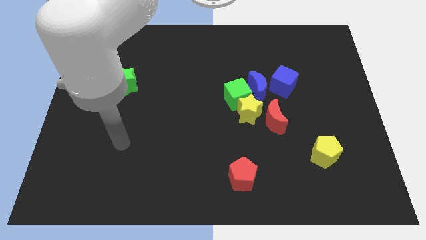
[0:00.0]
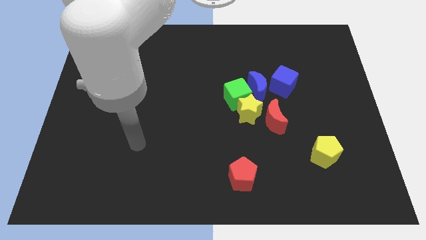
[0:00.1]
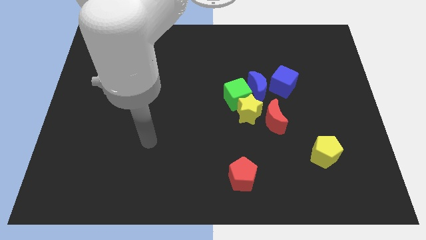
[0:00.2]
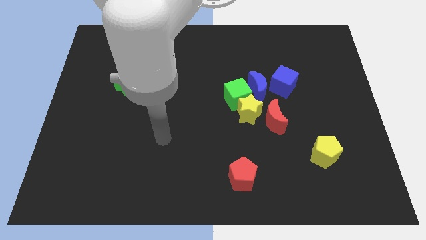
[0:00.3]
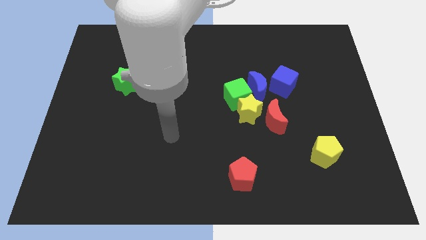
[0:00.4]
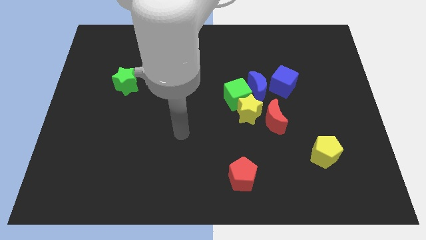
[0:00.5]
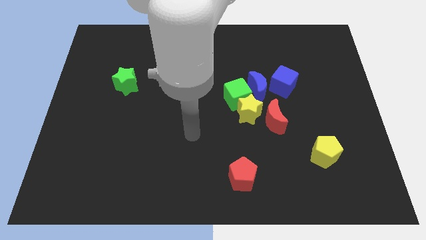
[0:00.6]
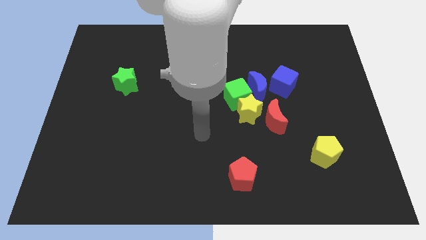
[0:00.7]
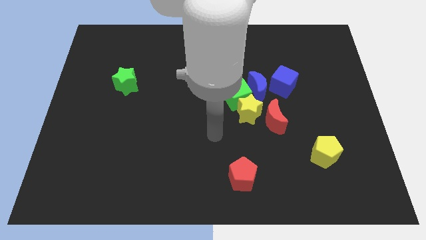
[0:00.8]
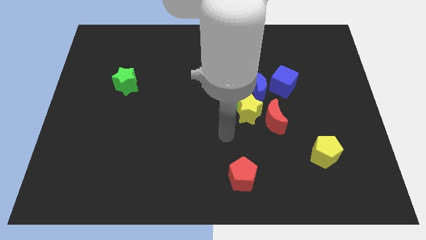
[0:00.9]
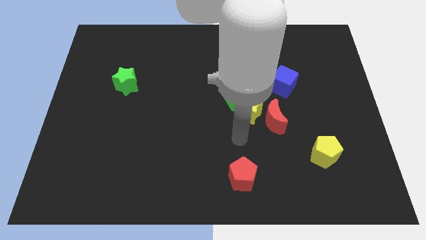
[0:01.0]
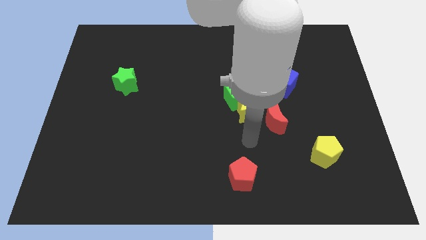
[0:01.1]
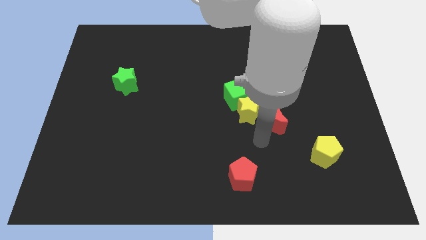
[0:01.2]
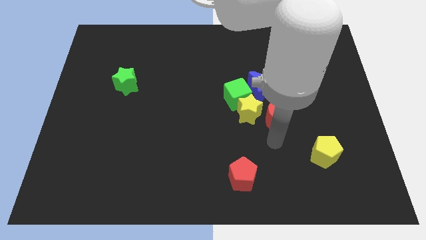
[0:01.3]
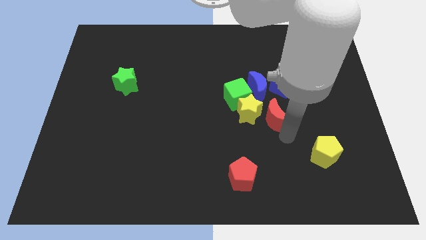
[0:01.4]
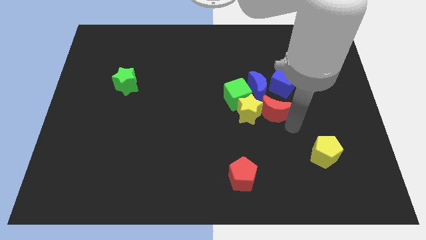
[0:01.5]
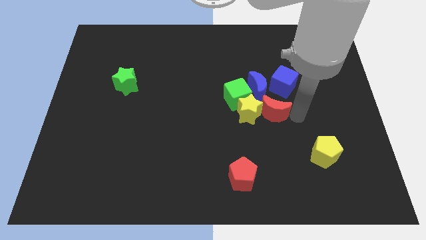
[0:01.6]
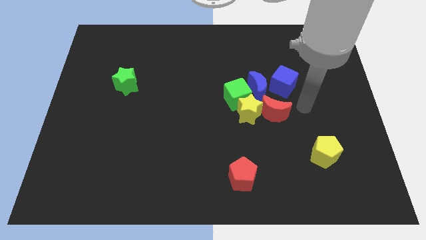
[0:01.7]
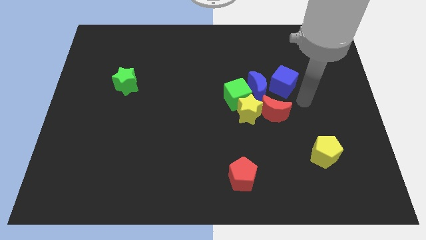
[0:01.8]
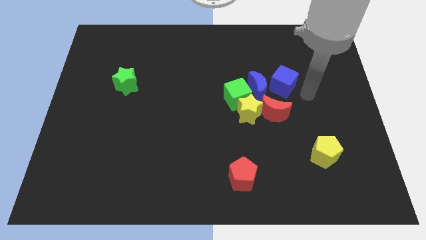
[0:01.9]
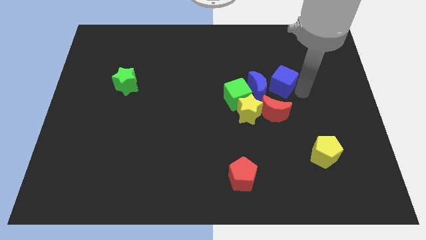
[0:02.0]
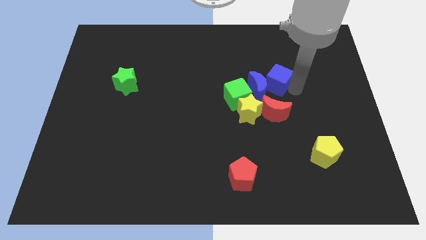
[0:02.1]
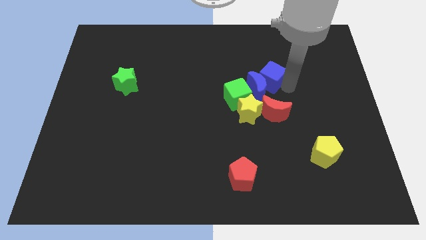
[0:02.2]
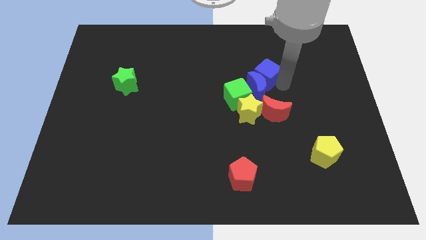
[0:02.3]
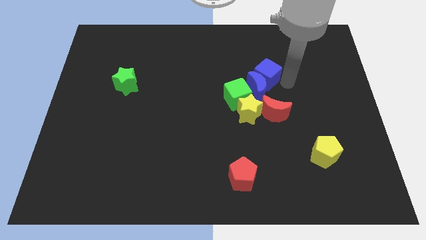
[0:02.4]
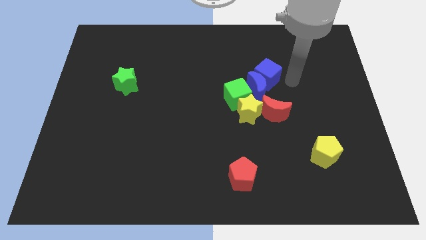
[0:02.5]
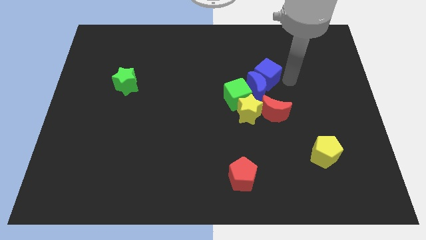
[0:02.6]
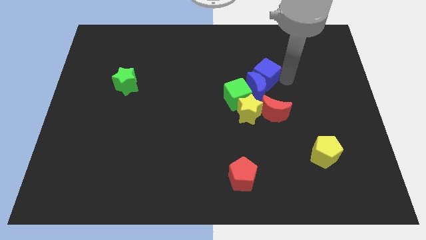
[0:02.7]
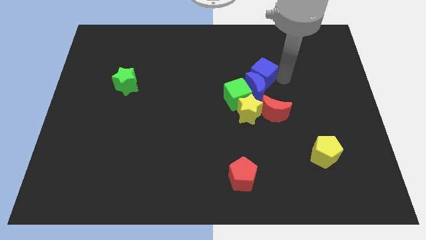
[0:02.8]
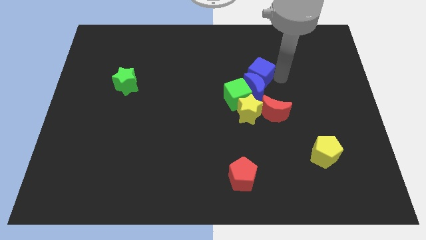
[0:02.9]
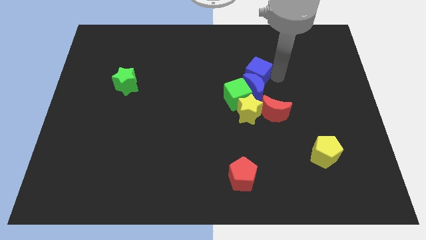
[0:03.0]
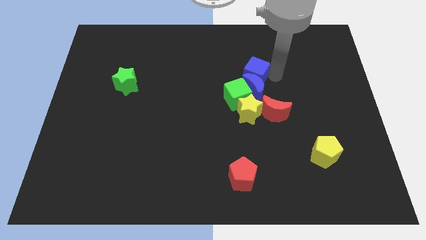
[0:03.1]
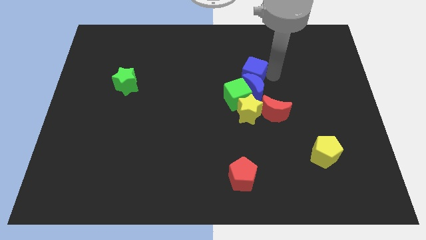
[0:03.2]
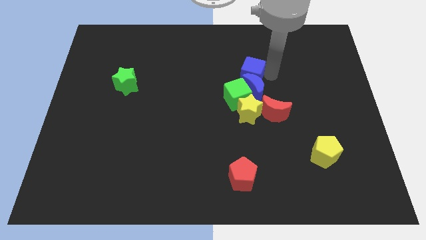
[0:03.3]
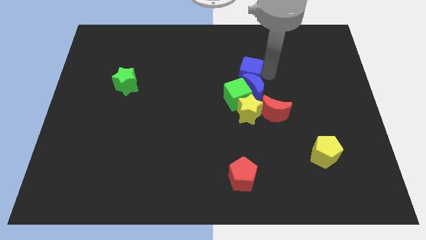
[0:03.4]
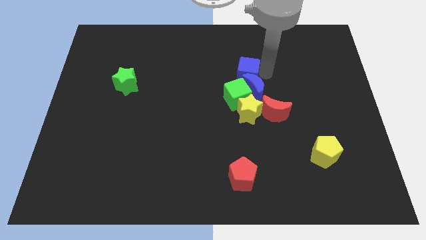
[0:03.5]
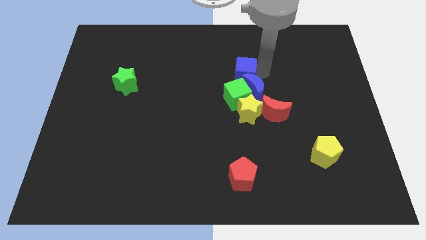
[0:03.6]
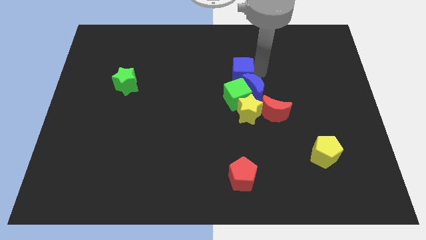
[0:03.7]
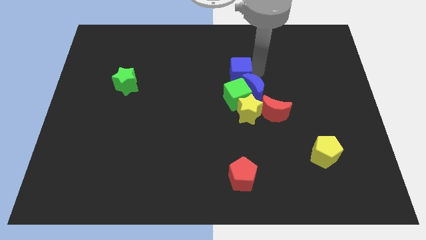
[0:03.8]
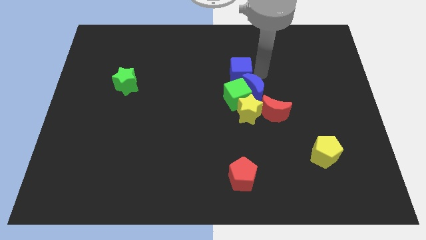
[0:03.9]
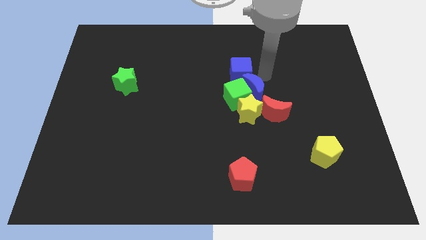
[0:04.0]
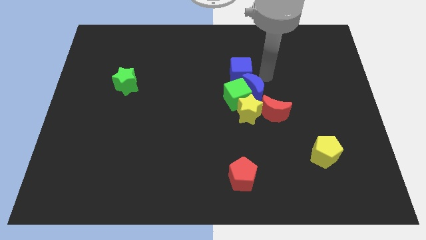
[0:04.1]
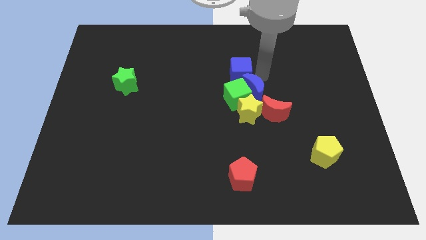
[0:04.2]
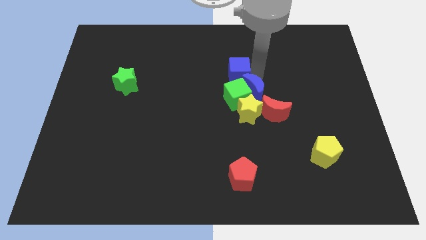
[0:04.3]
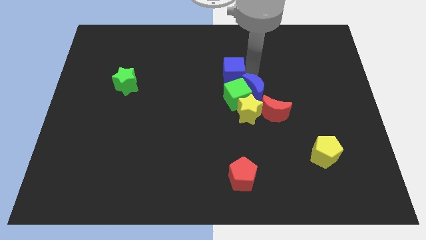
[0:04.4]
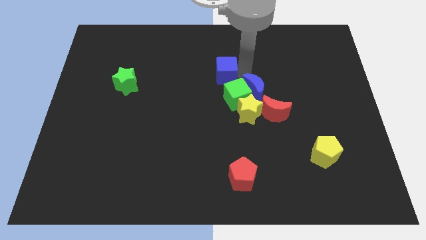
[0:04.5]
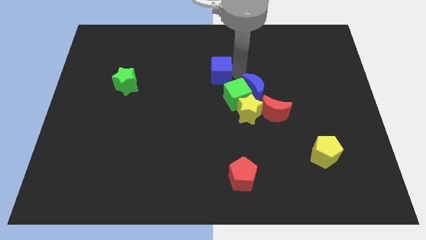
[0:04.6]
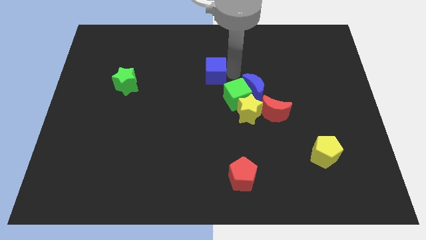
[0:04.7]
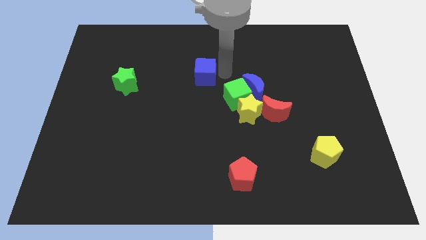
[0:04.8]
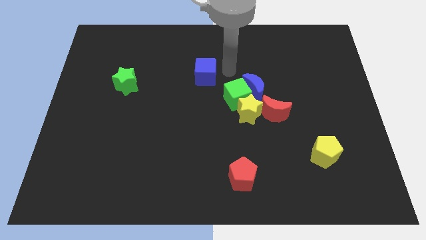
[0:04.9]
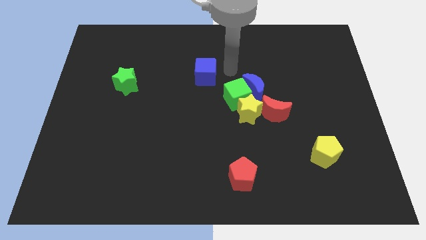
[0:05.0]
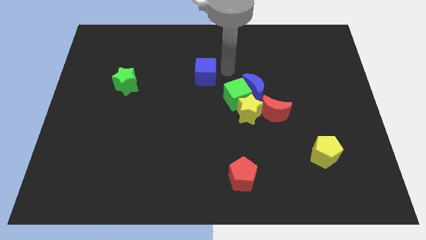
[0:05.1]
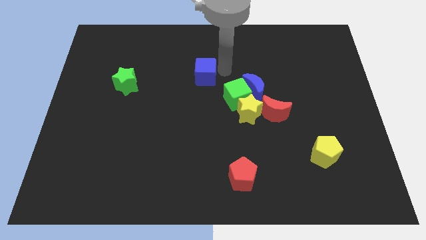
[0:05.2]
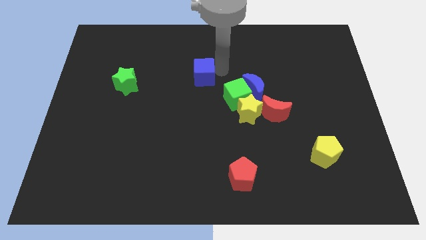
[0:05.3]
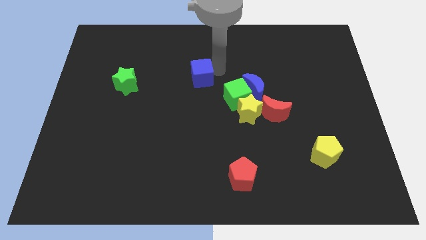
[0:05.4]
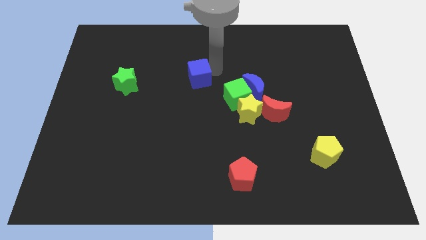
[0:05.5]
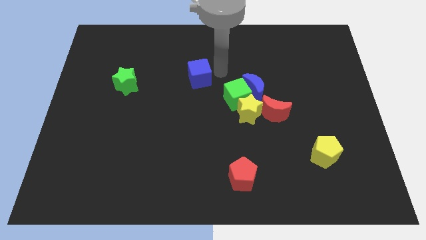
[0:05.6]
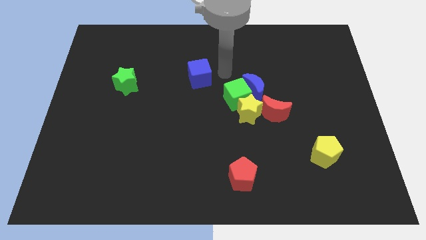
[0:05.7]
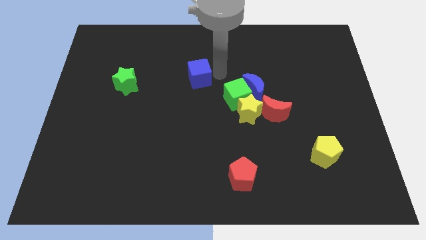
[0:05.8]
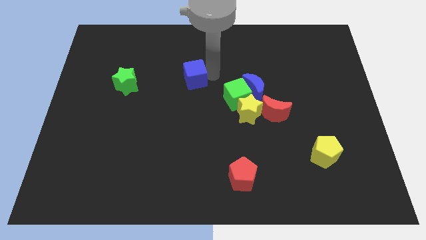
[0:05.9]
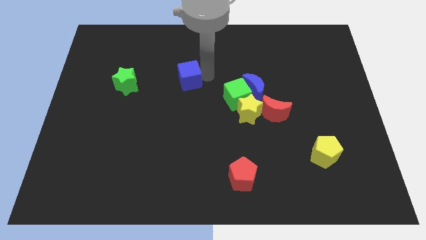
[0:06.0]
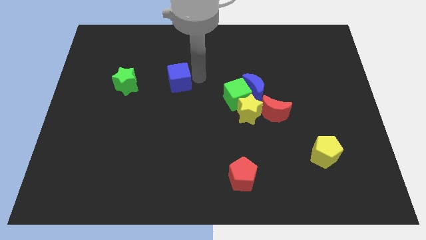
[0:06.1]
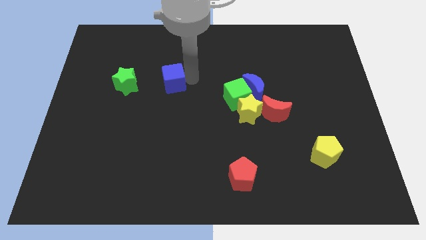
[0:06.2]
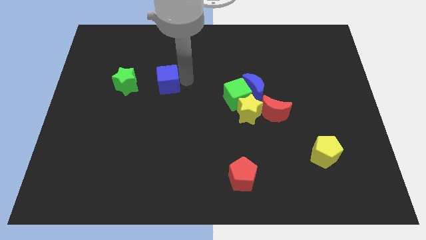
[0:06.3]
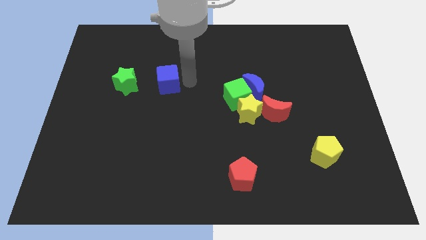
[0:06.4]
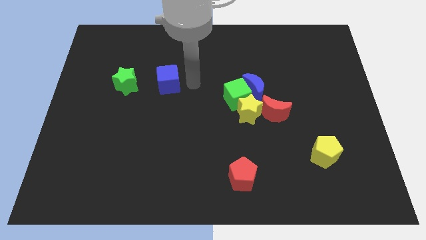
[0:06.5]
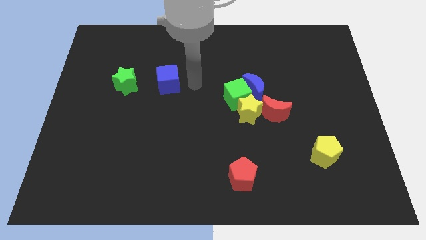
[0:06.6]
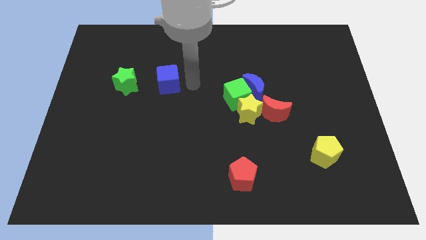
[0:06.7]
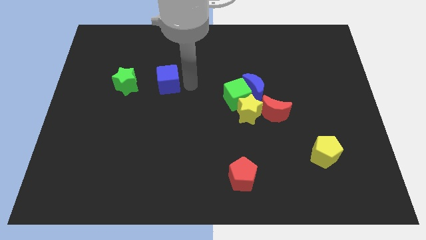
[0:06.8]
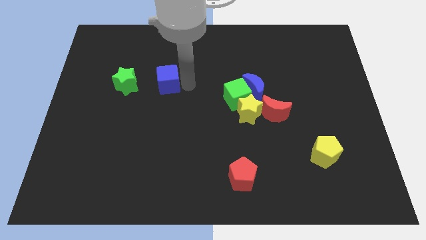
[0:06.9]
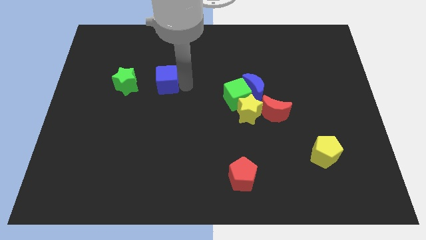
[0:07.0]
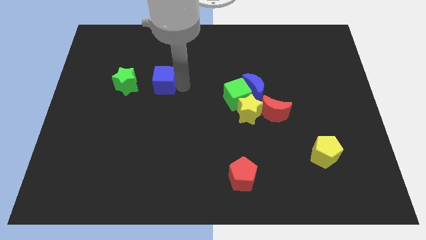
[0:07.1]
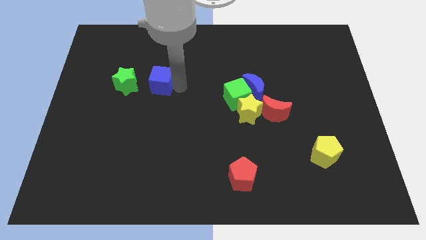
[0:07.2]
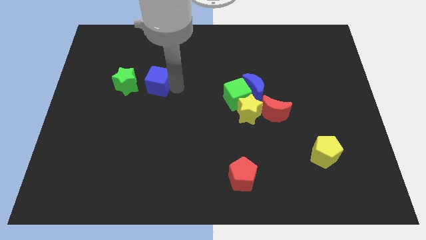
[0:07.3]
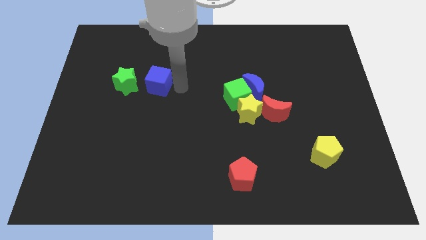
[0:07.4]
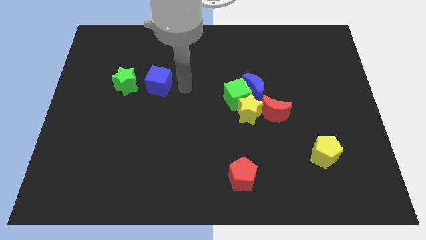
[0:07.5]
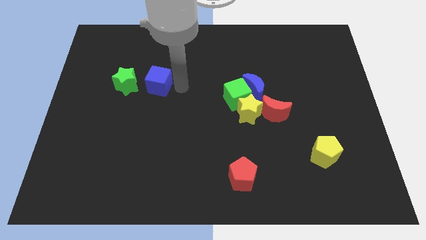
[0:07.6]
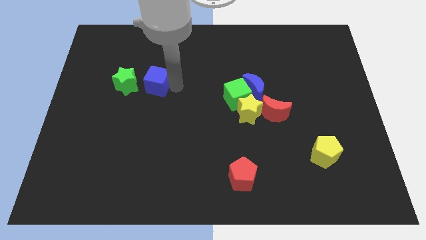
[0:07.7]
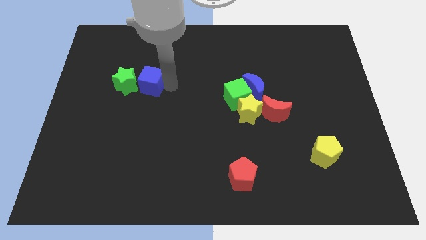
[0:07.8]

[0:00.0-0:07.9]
slide the blue cube towards the green star
